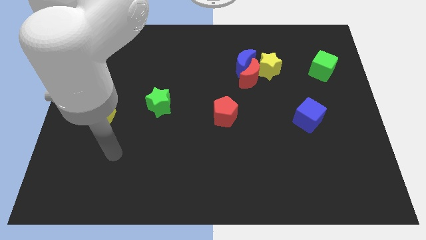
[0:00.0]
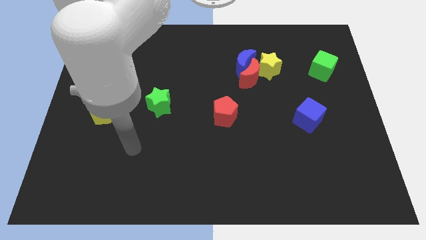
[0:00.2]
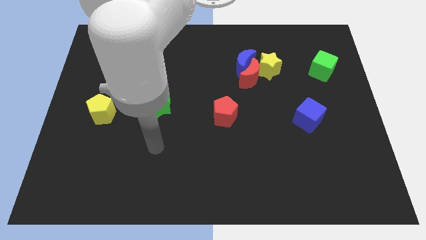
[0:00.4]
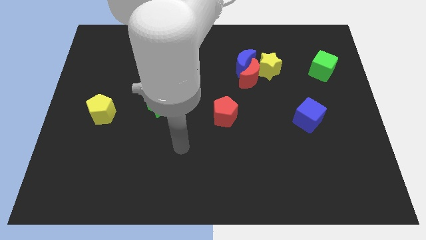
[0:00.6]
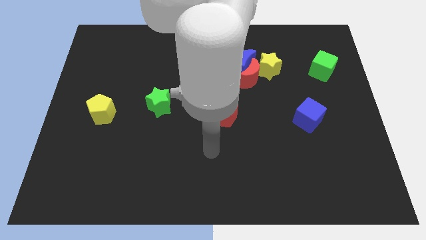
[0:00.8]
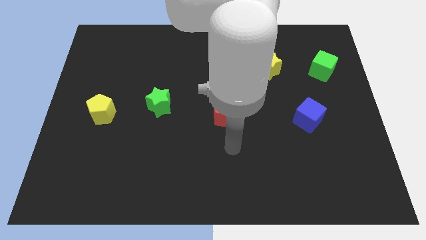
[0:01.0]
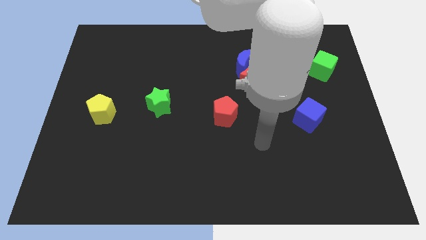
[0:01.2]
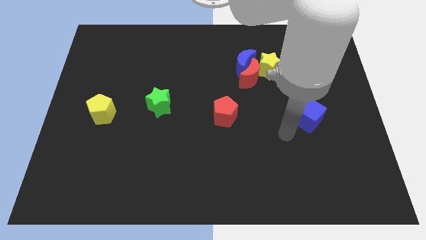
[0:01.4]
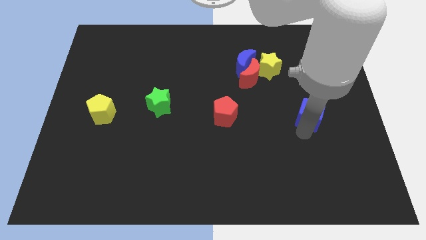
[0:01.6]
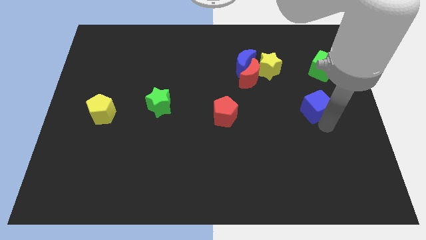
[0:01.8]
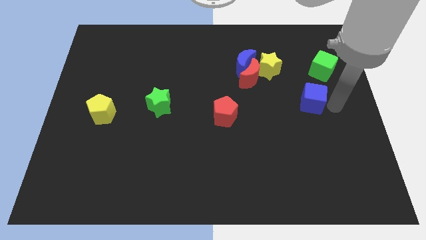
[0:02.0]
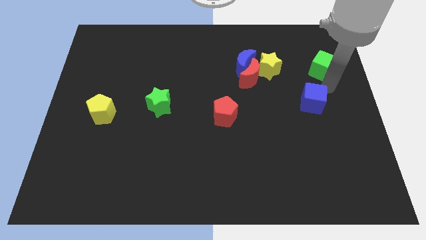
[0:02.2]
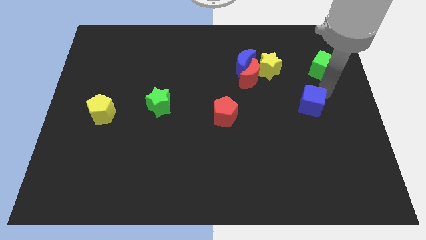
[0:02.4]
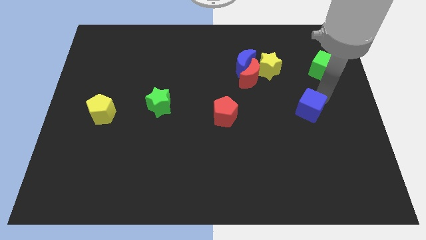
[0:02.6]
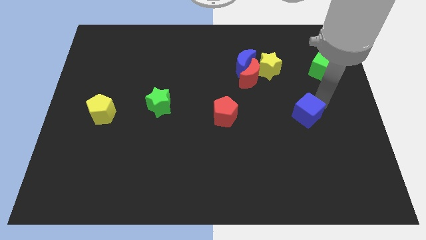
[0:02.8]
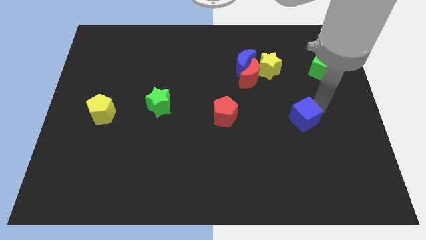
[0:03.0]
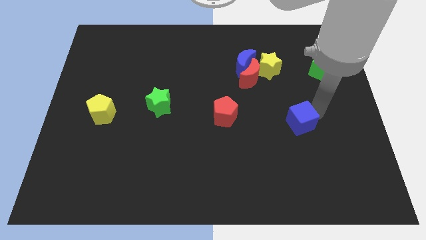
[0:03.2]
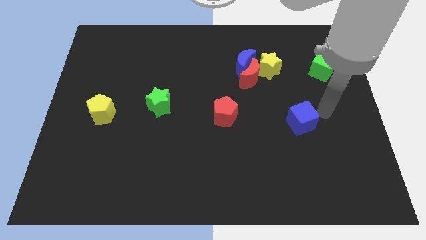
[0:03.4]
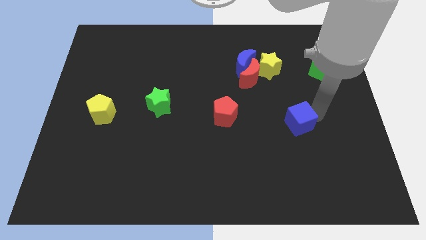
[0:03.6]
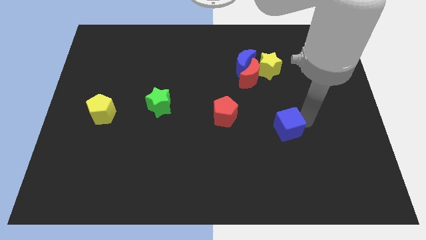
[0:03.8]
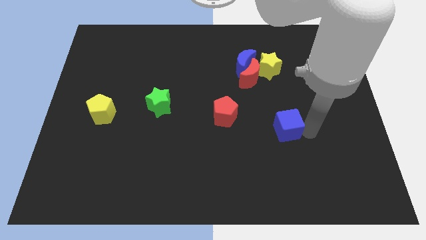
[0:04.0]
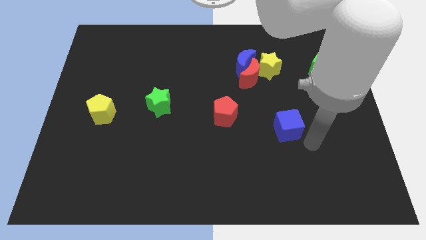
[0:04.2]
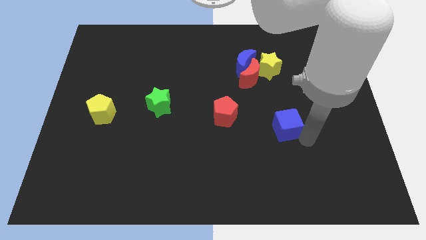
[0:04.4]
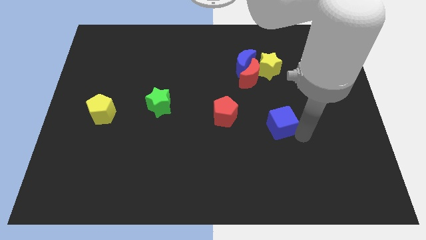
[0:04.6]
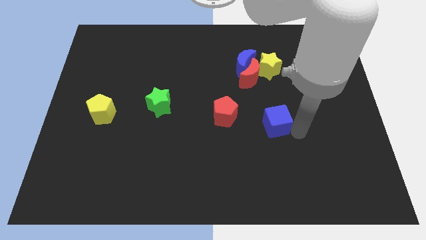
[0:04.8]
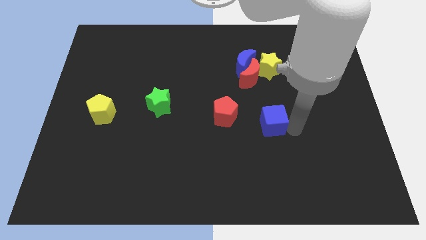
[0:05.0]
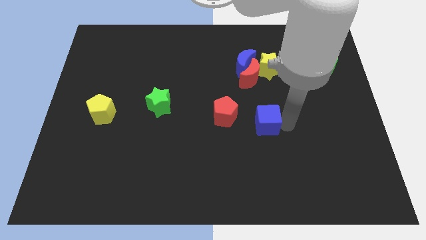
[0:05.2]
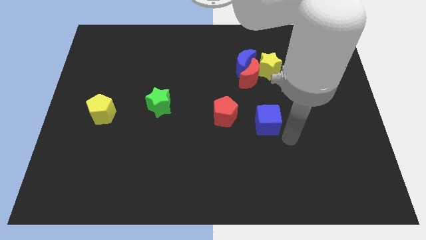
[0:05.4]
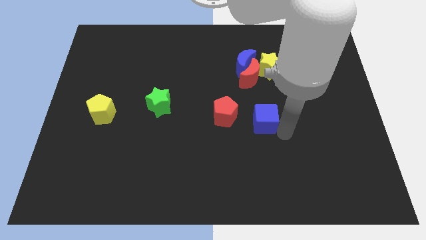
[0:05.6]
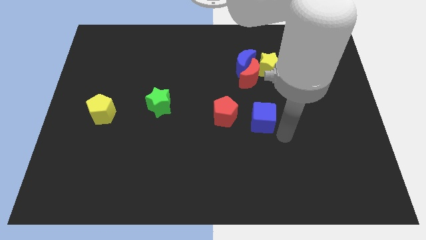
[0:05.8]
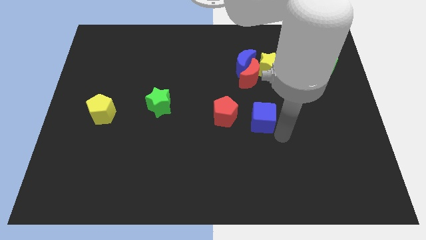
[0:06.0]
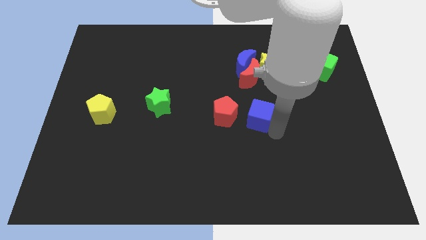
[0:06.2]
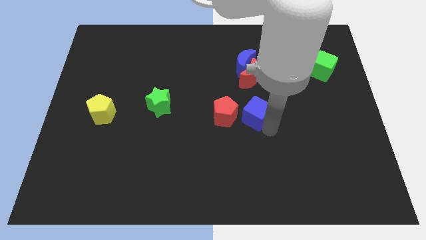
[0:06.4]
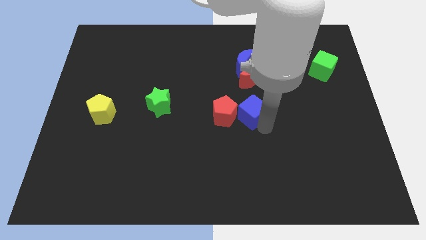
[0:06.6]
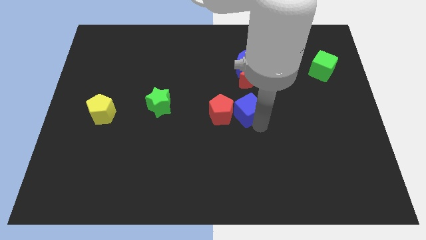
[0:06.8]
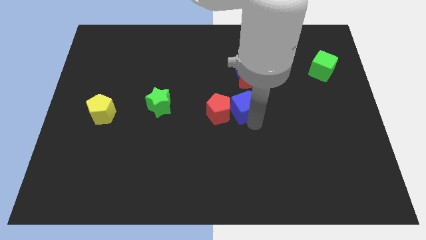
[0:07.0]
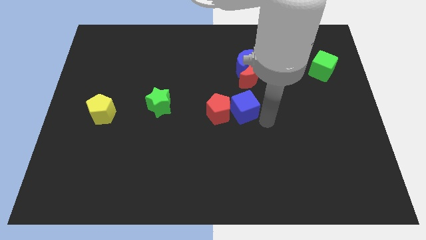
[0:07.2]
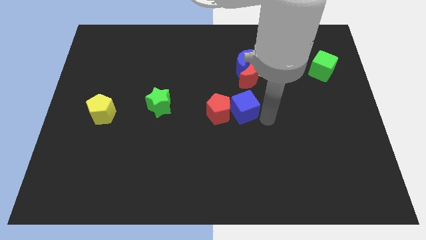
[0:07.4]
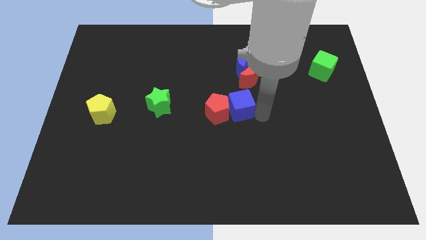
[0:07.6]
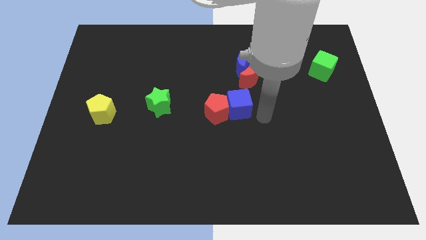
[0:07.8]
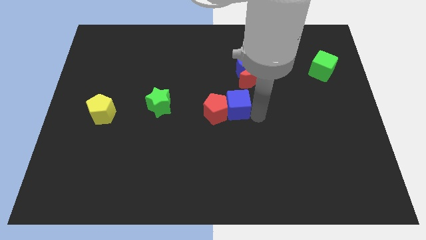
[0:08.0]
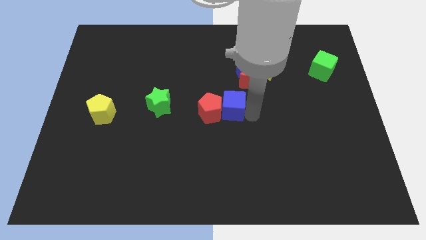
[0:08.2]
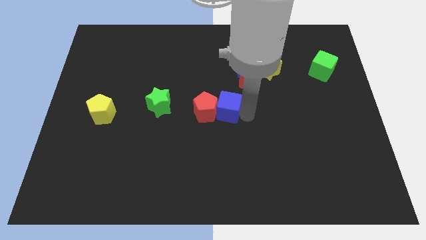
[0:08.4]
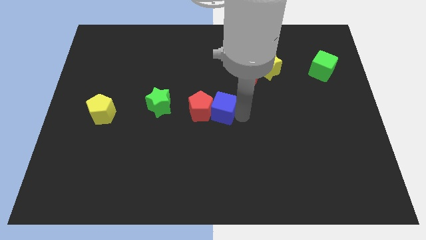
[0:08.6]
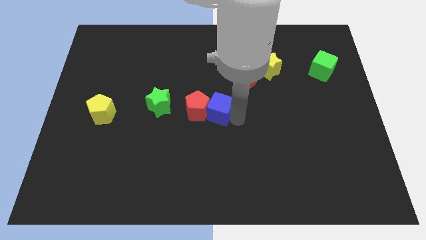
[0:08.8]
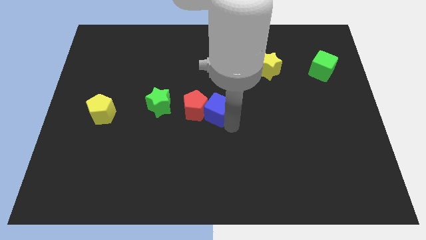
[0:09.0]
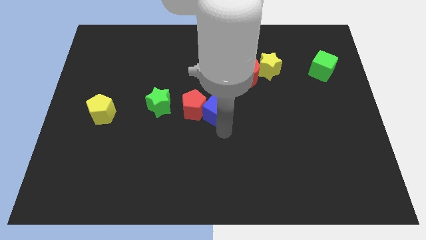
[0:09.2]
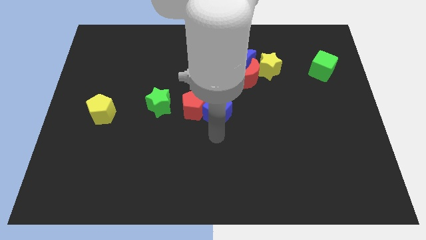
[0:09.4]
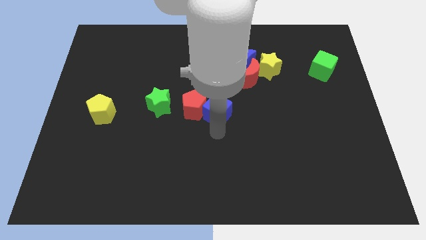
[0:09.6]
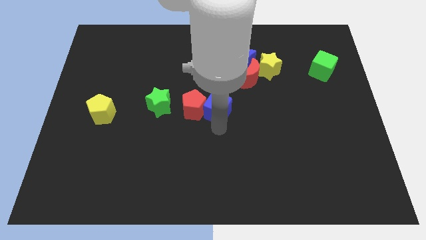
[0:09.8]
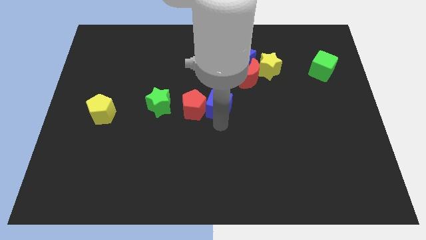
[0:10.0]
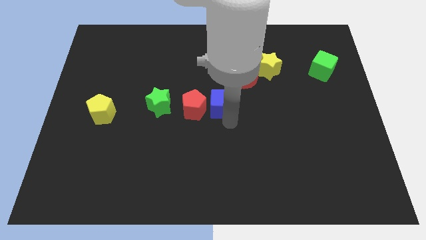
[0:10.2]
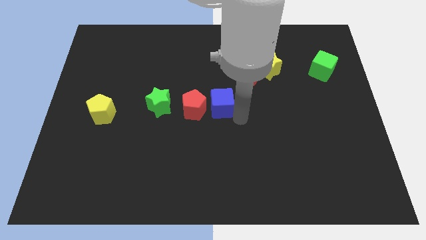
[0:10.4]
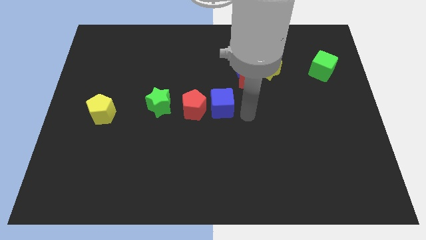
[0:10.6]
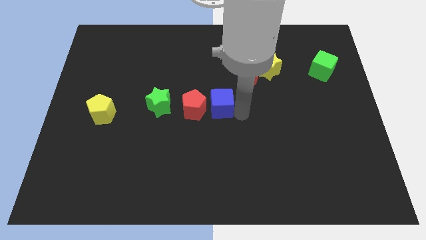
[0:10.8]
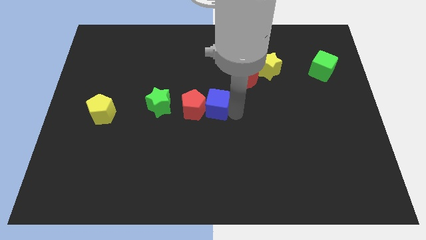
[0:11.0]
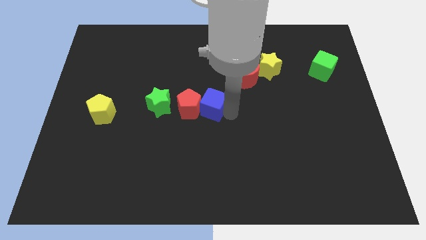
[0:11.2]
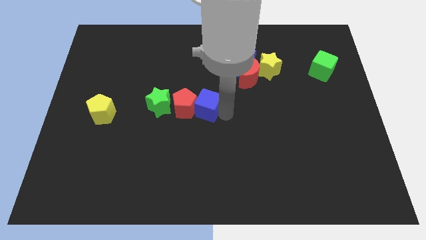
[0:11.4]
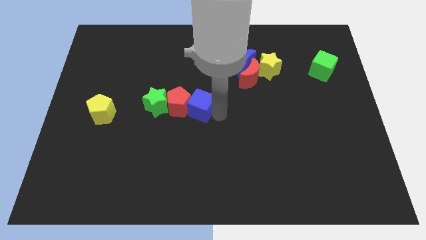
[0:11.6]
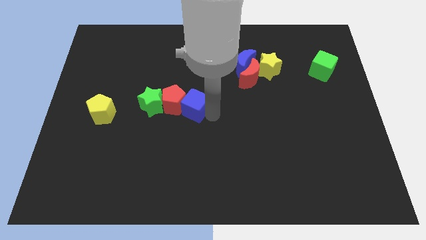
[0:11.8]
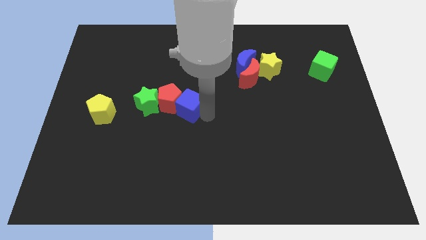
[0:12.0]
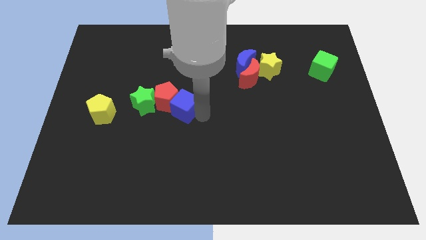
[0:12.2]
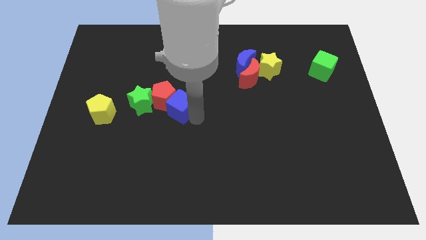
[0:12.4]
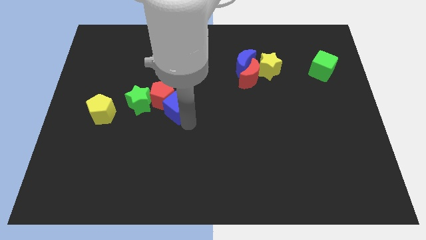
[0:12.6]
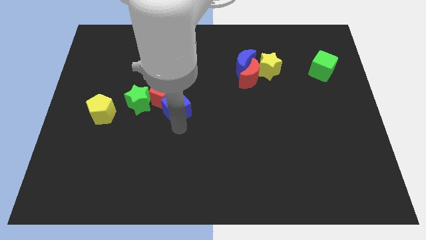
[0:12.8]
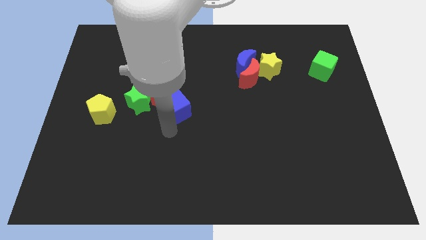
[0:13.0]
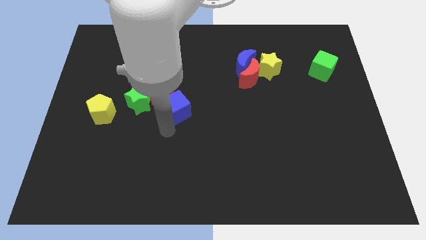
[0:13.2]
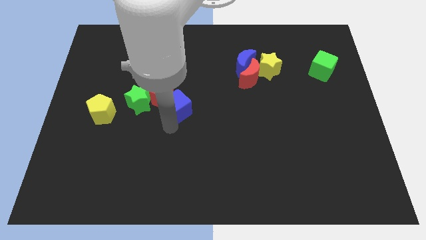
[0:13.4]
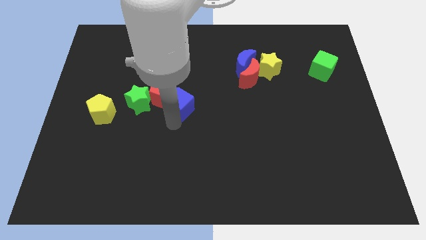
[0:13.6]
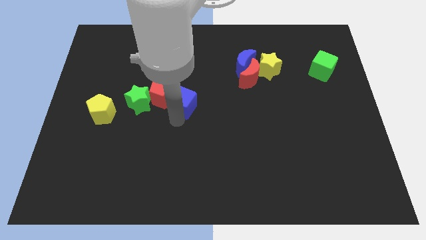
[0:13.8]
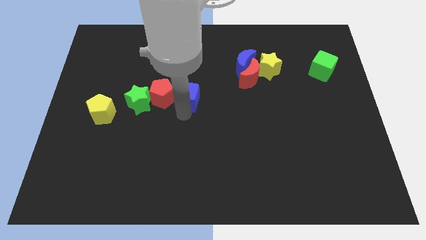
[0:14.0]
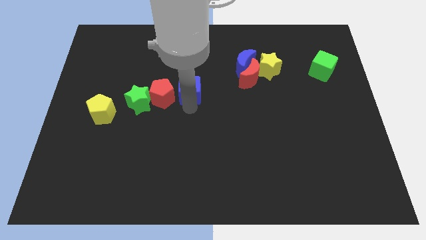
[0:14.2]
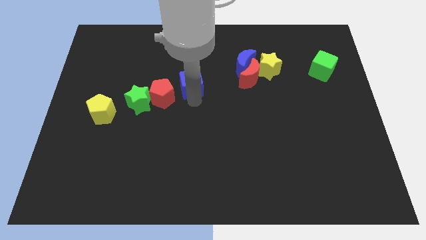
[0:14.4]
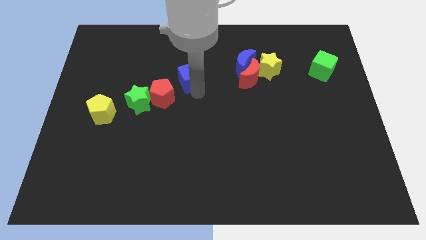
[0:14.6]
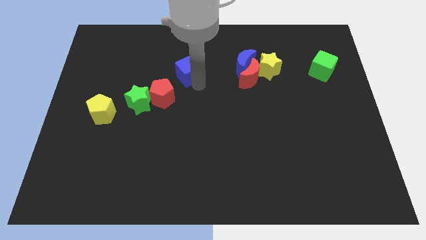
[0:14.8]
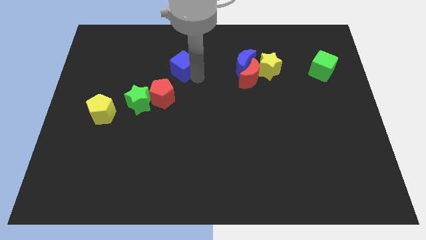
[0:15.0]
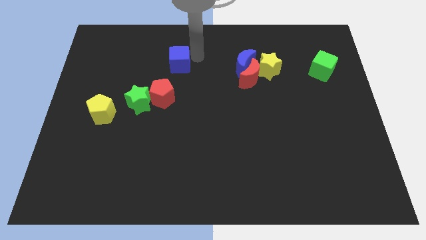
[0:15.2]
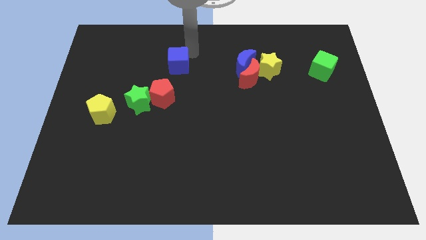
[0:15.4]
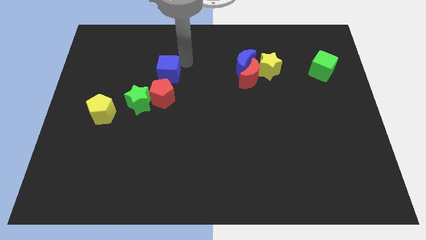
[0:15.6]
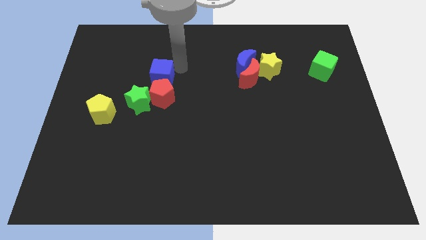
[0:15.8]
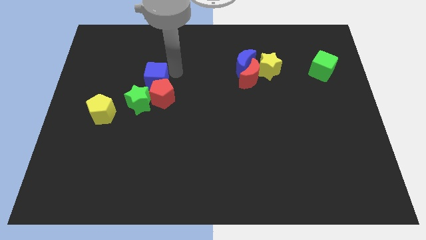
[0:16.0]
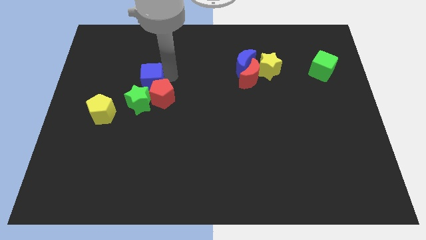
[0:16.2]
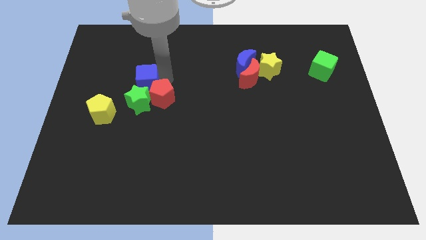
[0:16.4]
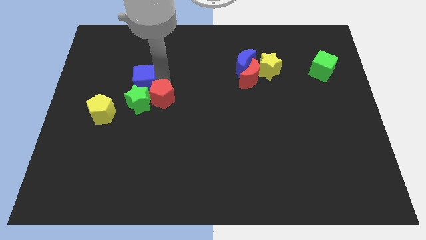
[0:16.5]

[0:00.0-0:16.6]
push the blue cube to the green star
